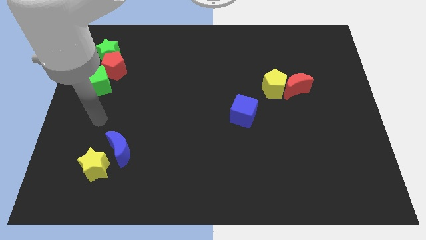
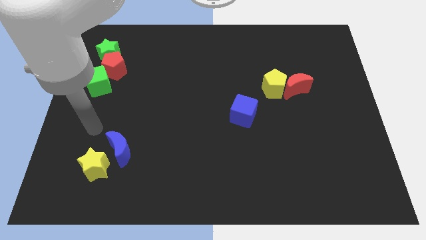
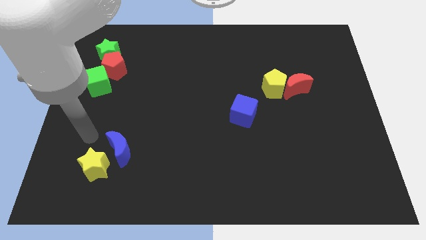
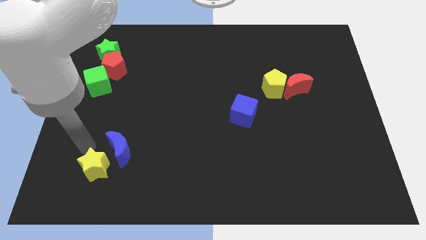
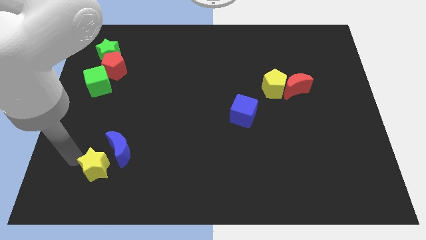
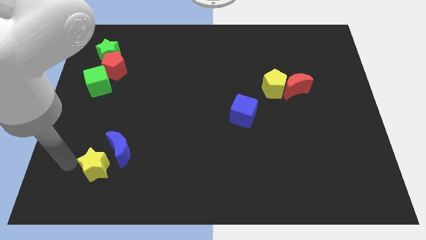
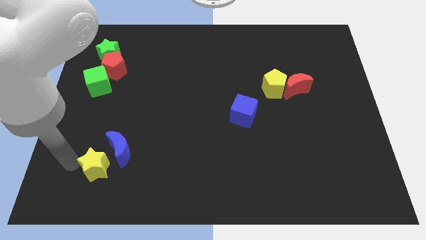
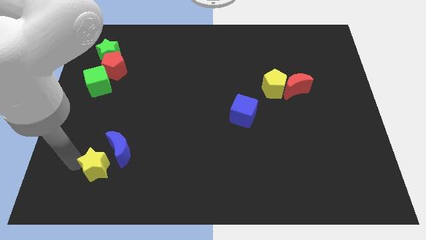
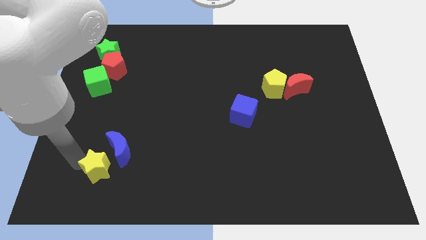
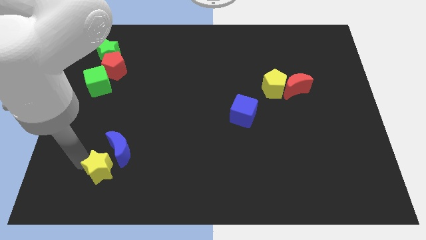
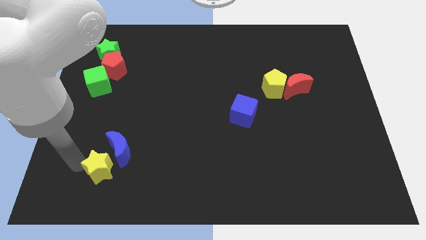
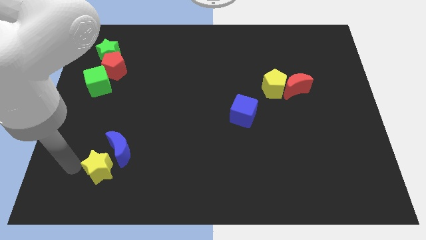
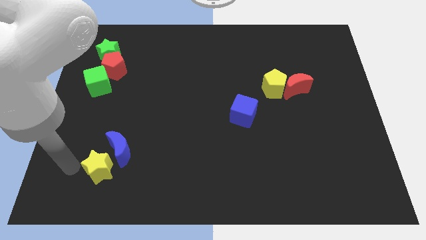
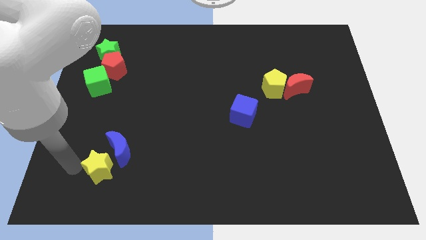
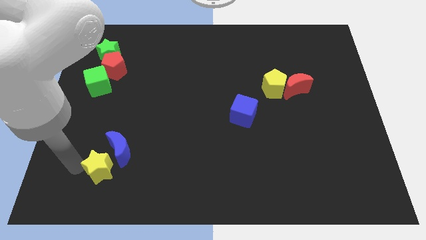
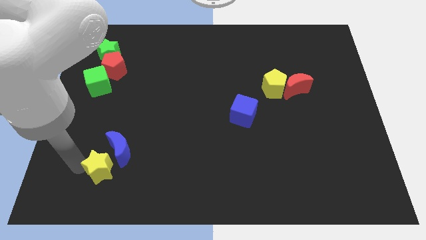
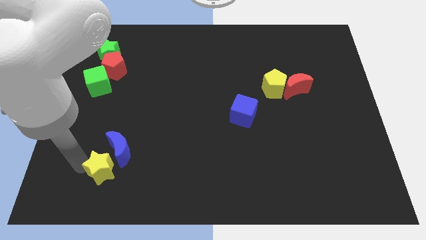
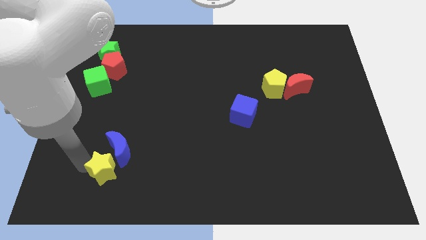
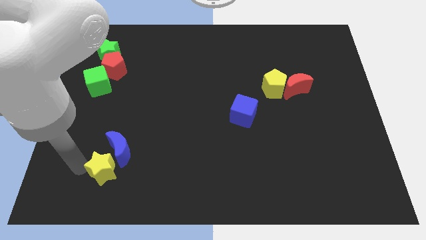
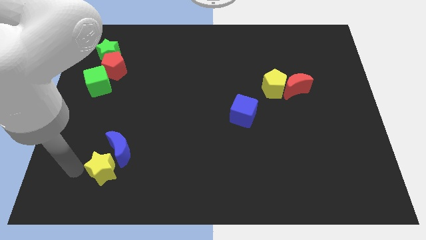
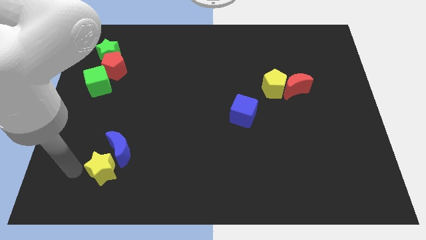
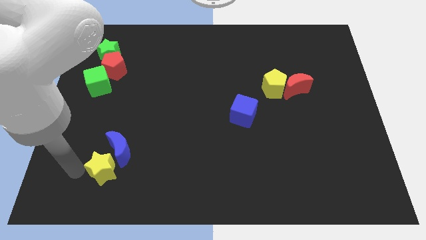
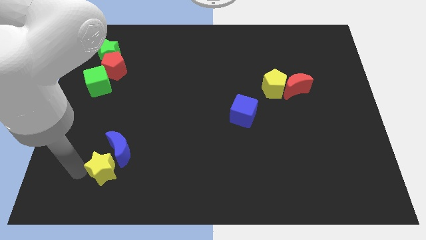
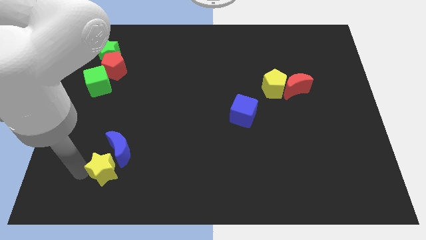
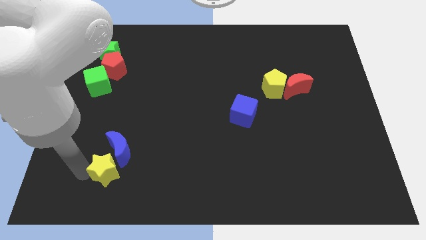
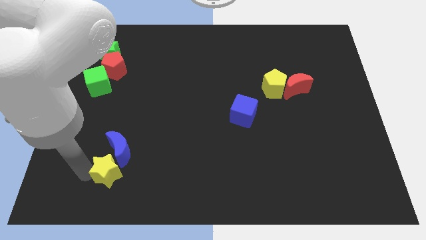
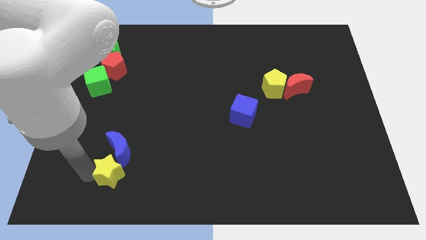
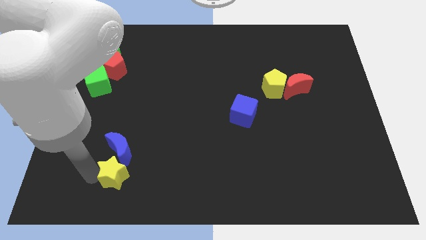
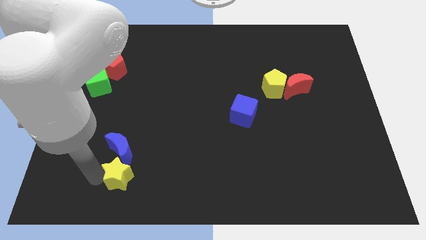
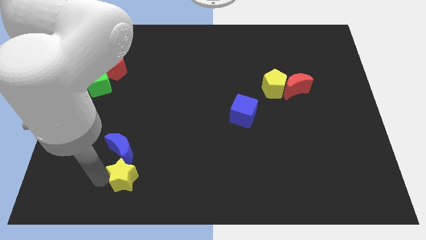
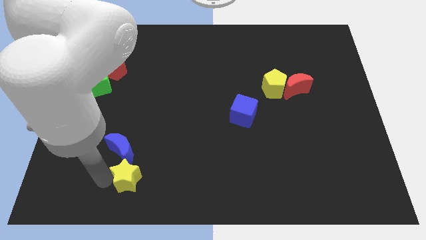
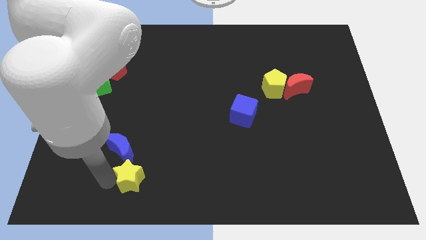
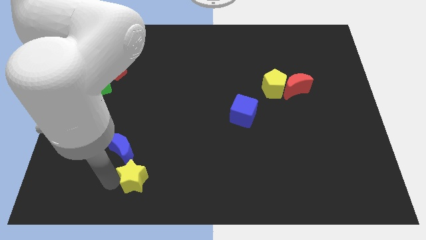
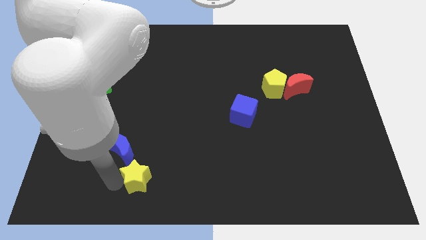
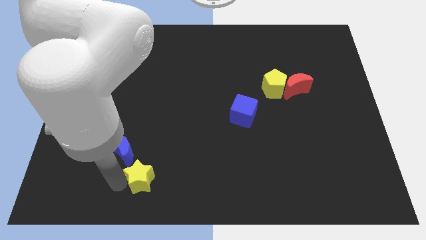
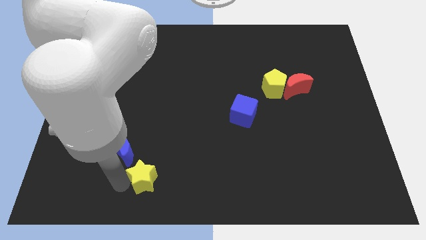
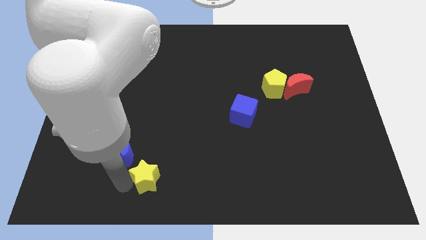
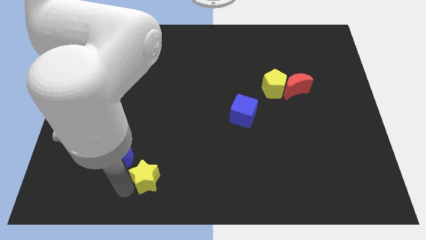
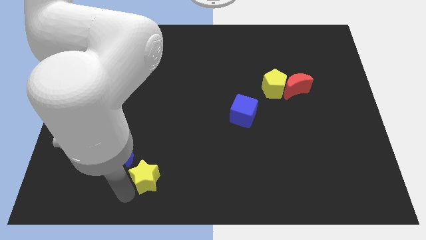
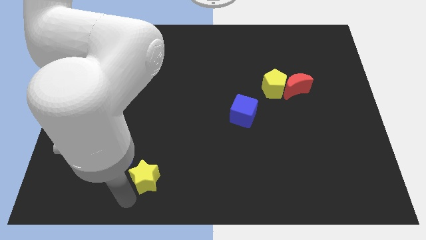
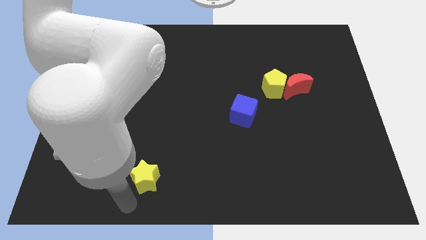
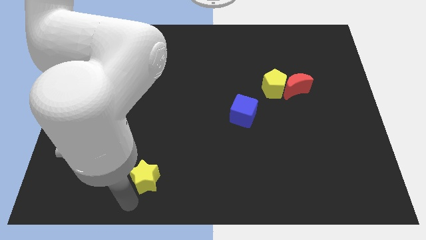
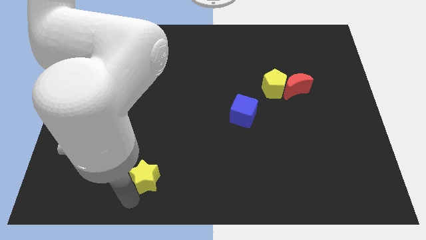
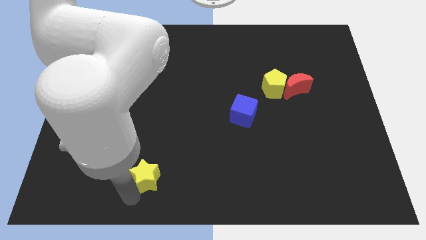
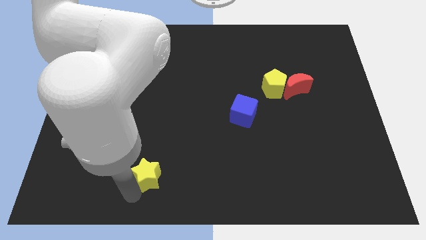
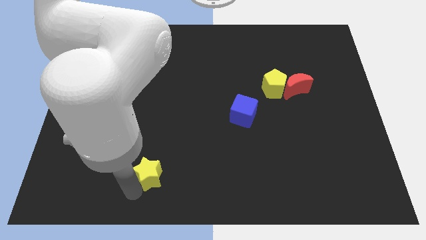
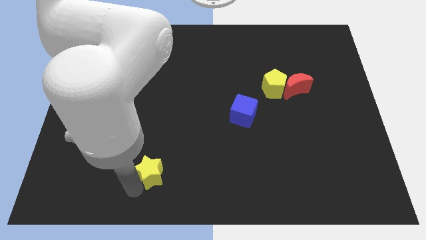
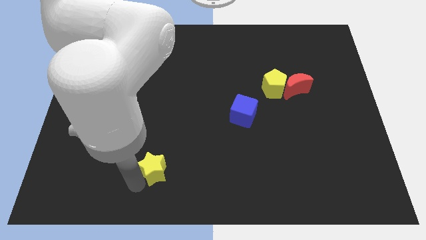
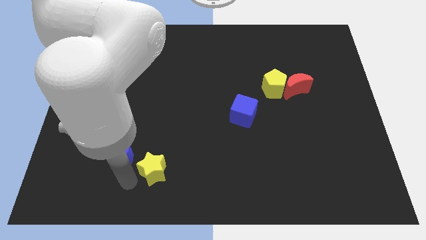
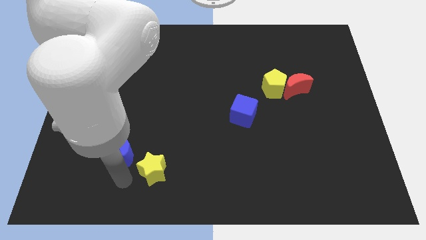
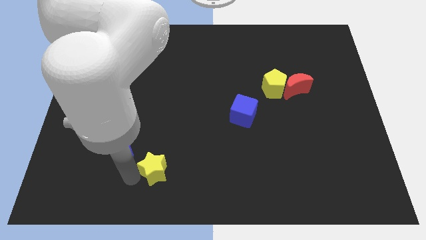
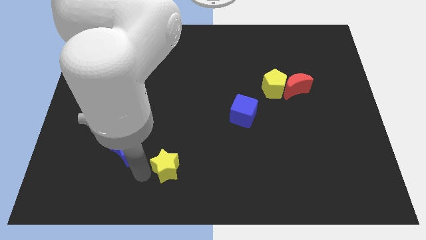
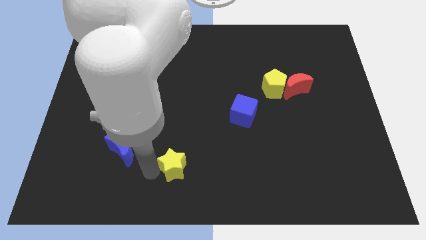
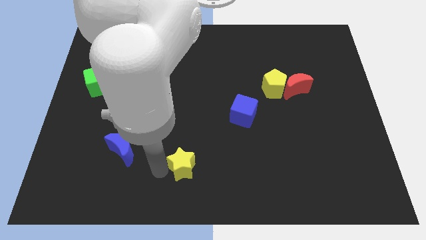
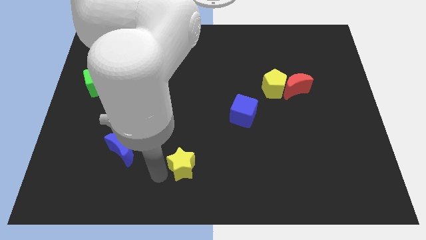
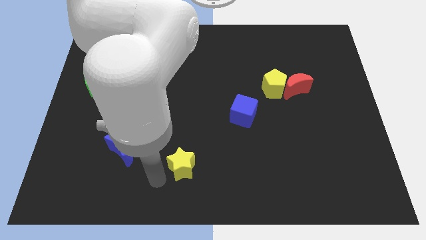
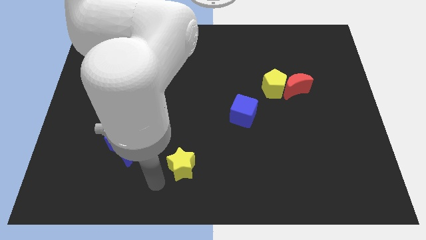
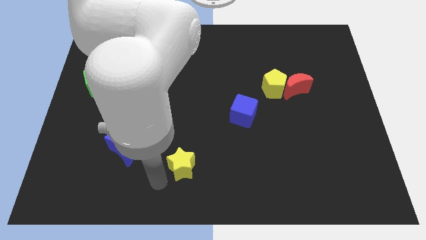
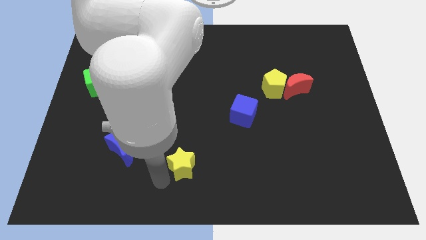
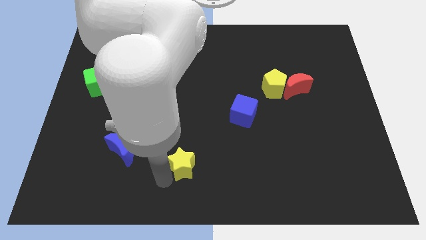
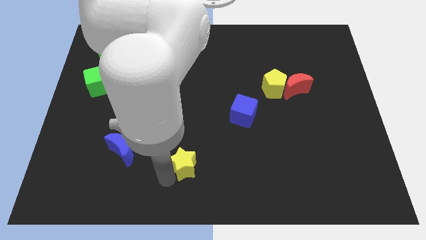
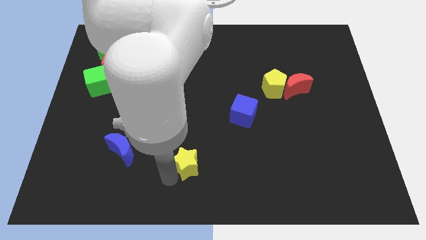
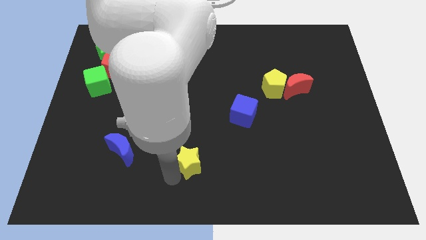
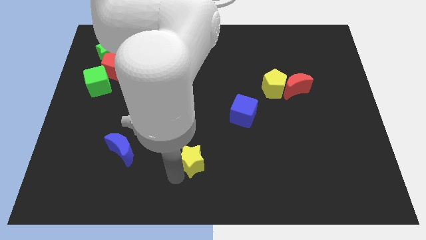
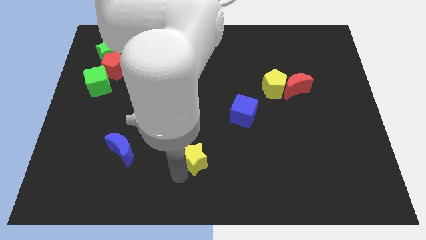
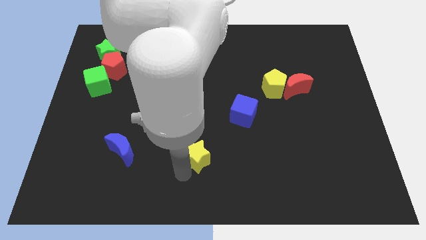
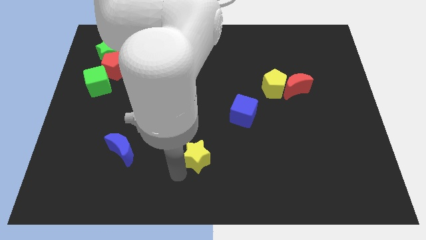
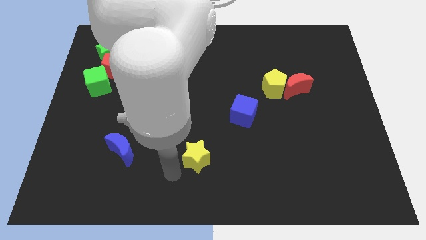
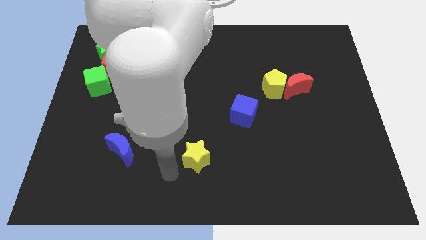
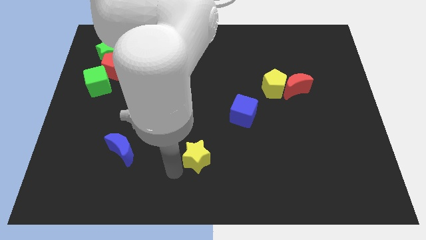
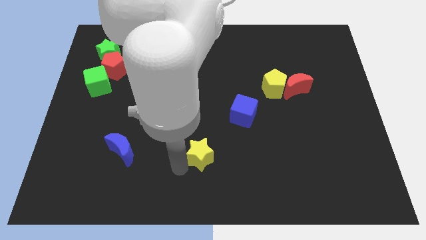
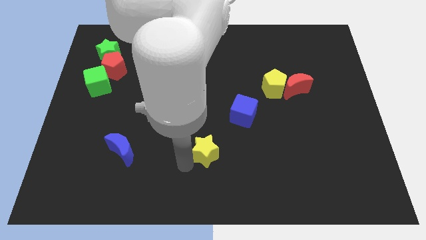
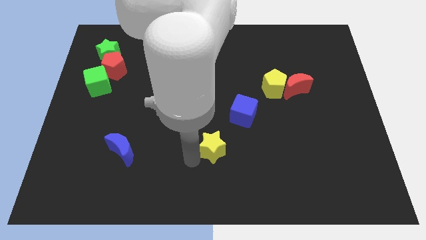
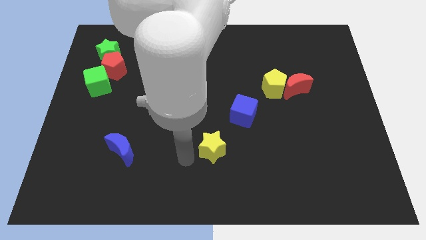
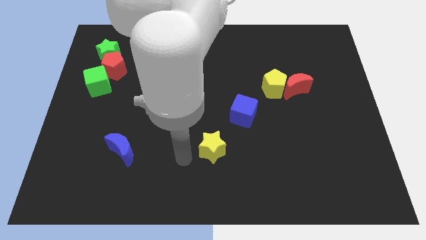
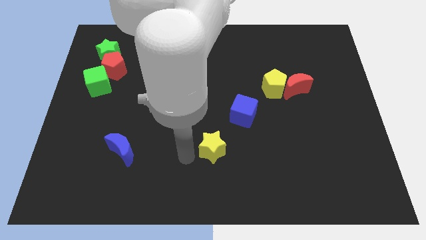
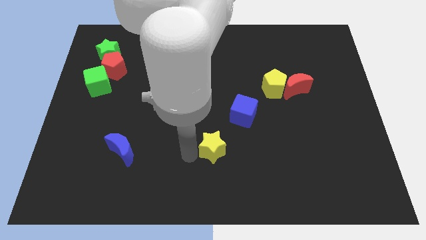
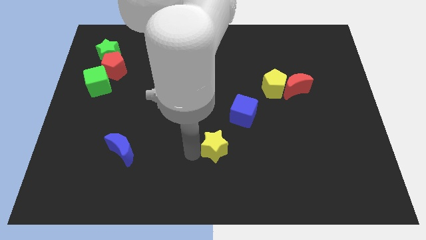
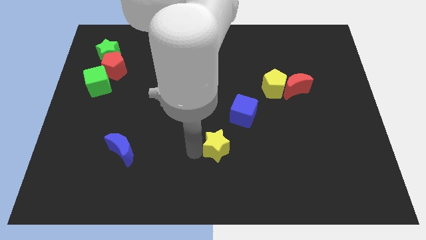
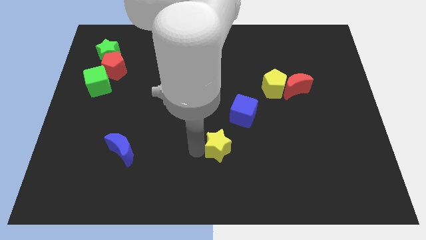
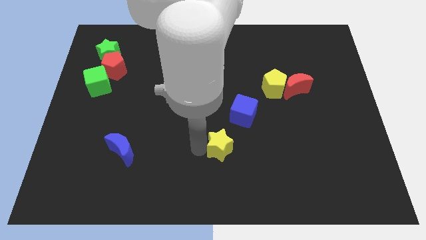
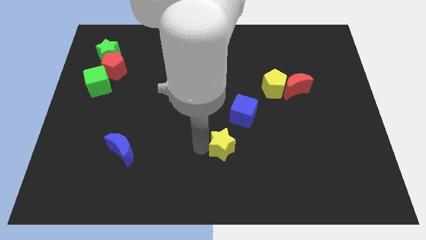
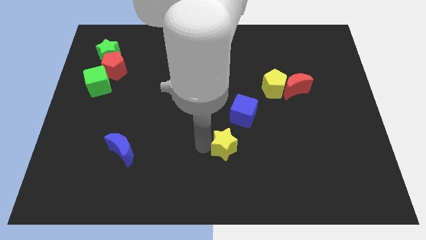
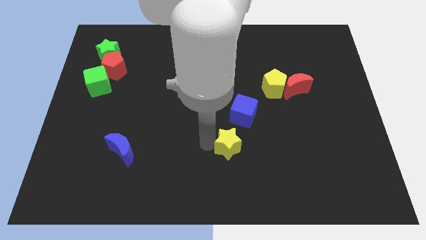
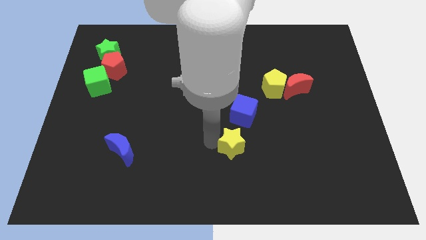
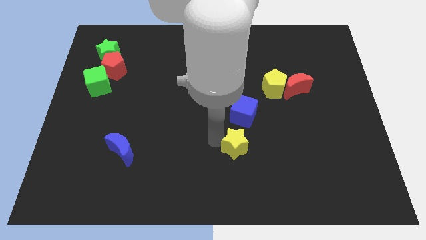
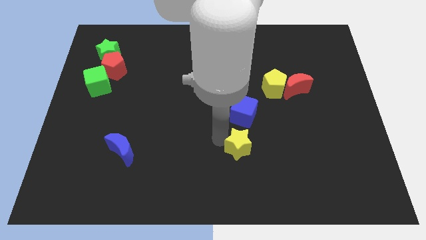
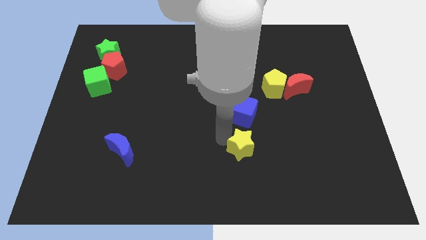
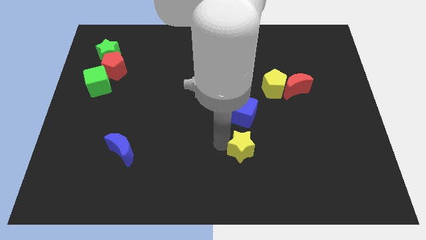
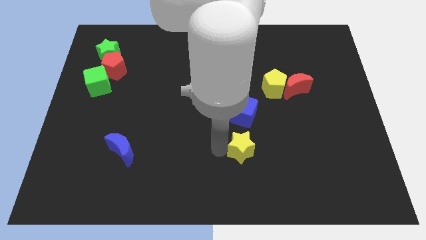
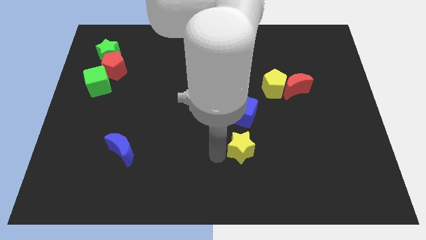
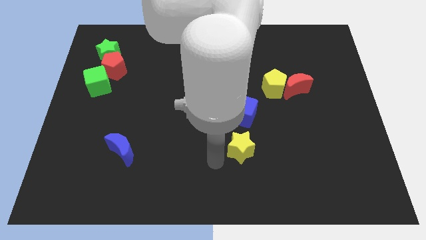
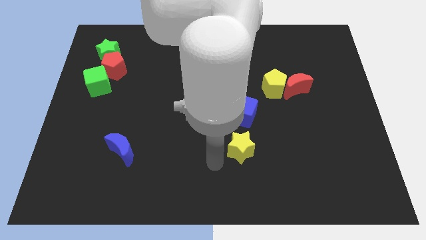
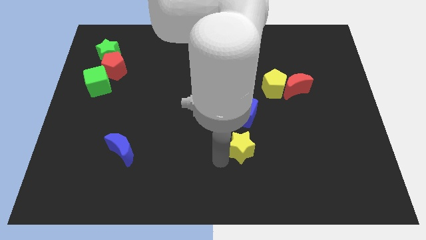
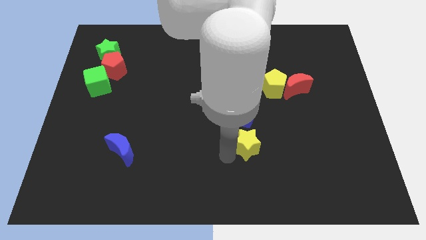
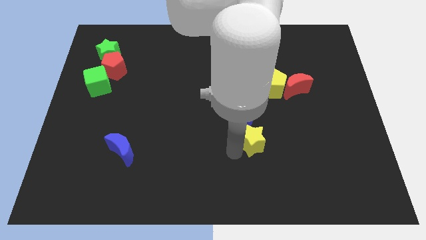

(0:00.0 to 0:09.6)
move the yellow star diagonally down and to the right of the blue cube
